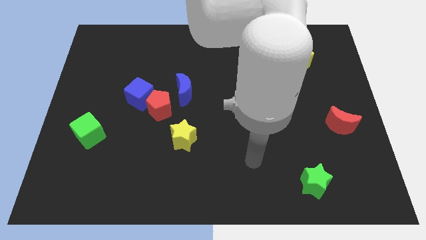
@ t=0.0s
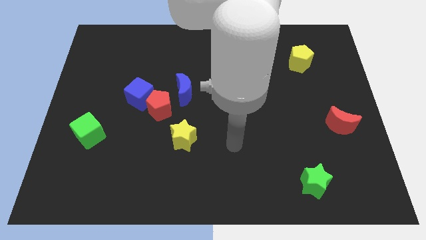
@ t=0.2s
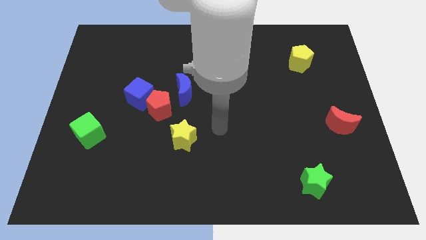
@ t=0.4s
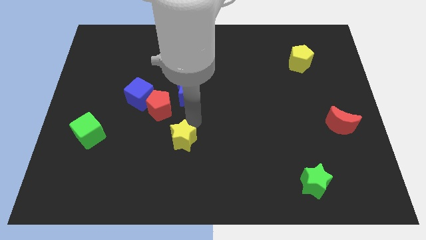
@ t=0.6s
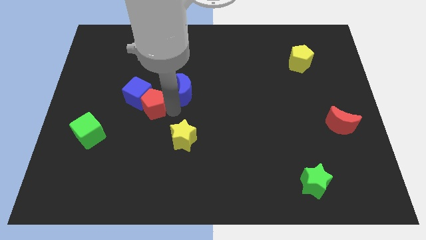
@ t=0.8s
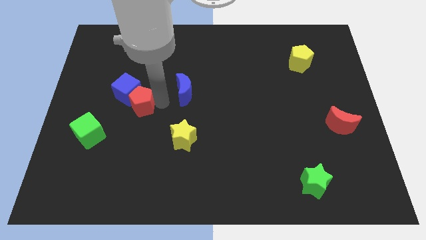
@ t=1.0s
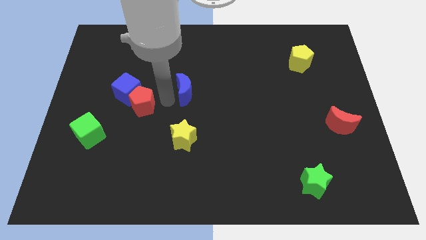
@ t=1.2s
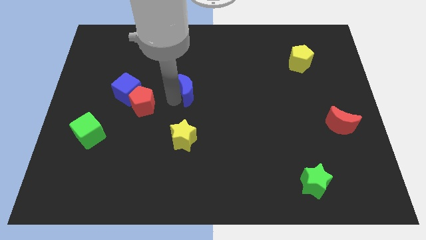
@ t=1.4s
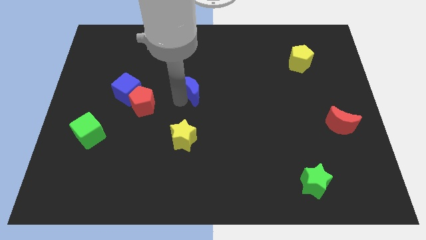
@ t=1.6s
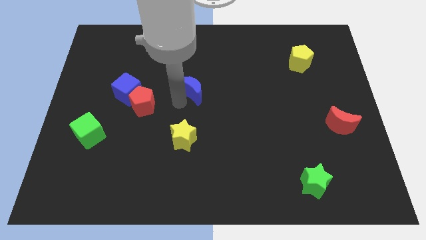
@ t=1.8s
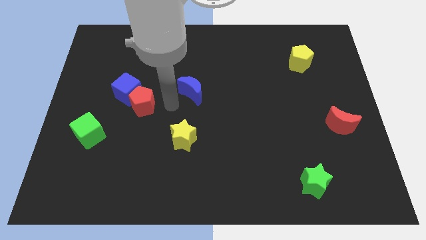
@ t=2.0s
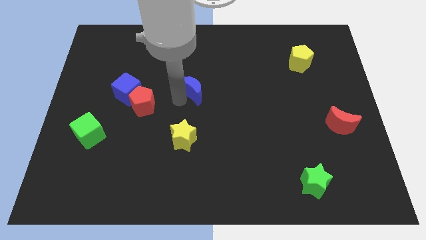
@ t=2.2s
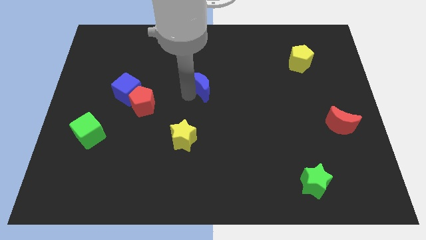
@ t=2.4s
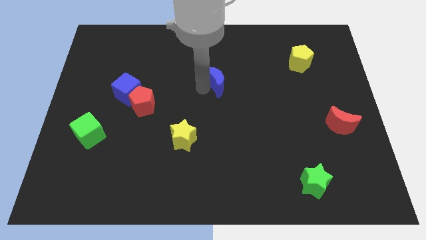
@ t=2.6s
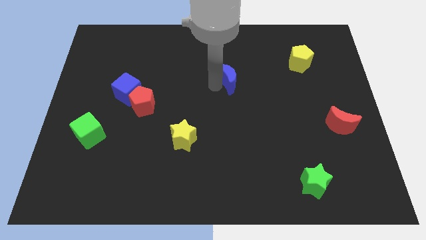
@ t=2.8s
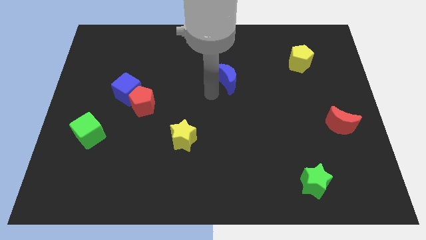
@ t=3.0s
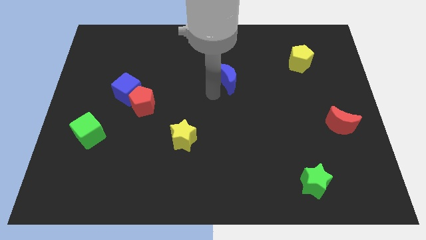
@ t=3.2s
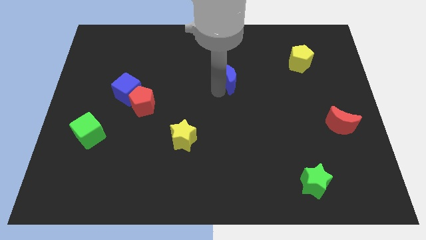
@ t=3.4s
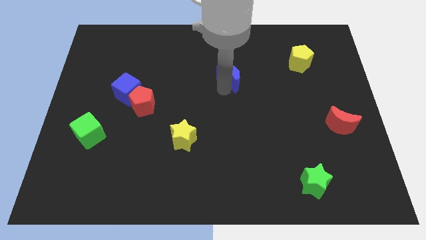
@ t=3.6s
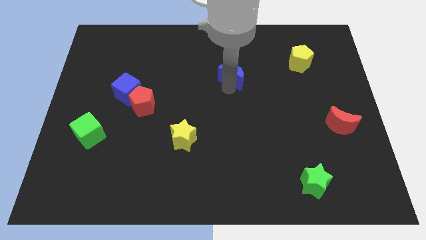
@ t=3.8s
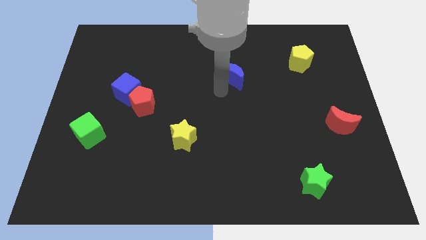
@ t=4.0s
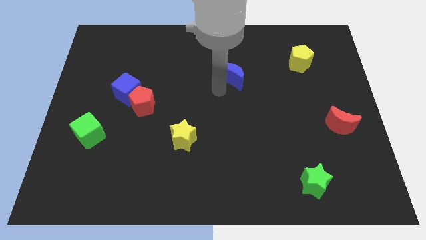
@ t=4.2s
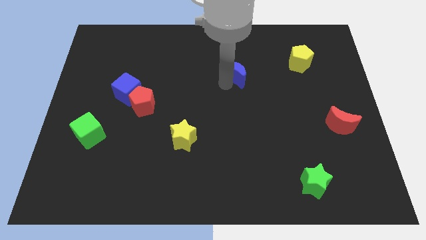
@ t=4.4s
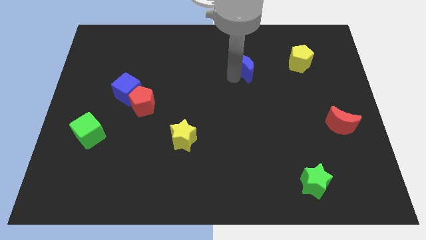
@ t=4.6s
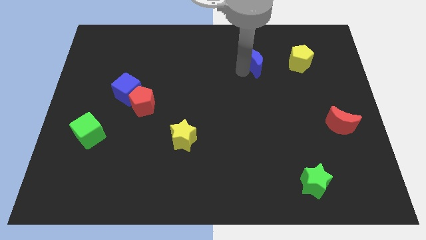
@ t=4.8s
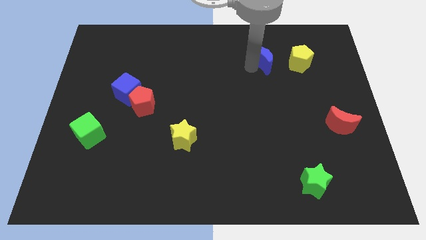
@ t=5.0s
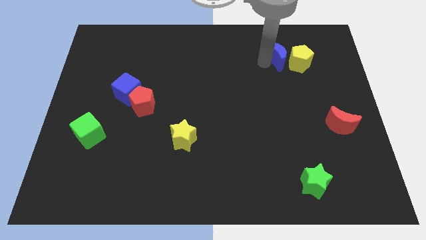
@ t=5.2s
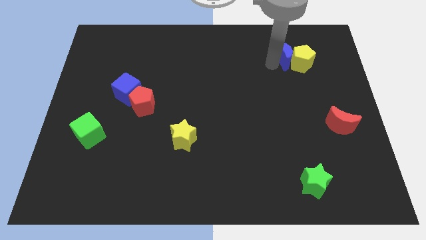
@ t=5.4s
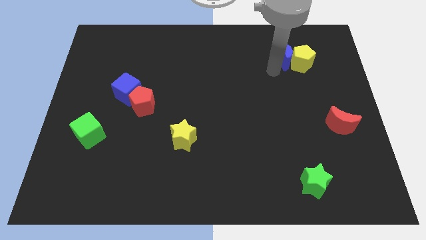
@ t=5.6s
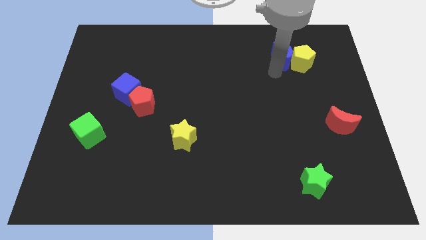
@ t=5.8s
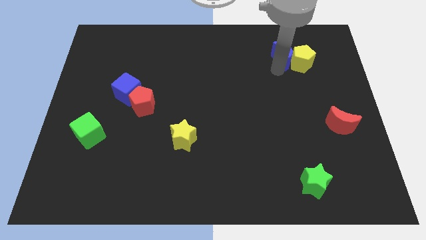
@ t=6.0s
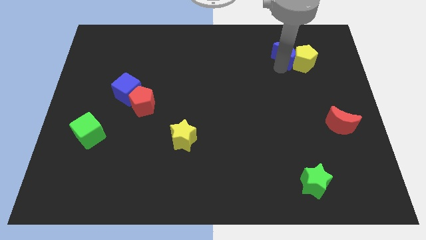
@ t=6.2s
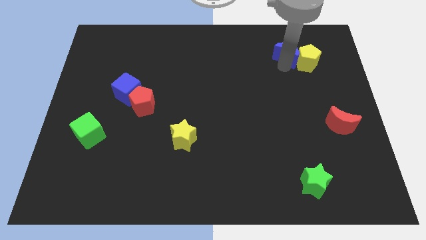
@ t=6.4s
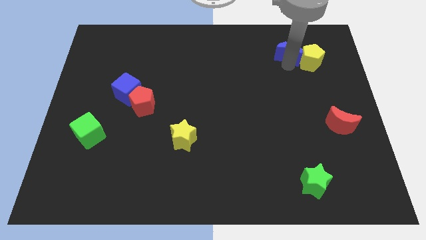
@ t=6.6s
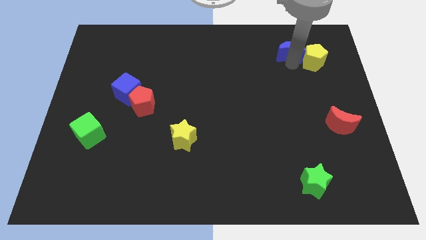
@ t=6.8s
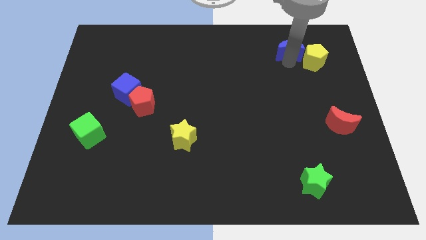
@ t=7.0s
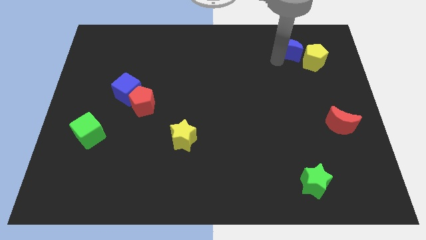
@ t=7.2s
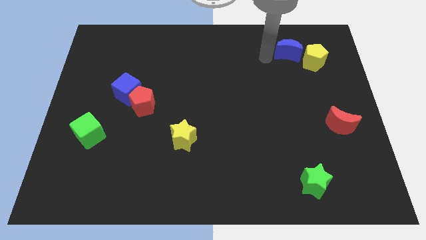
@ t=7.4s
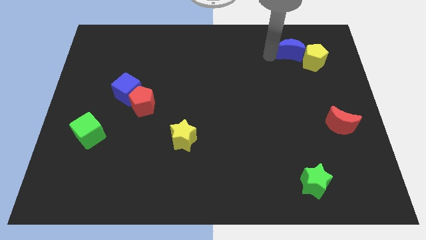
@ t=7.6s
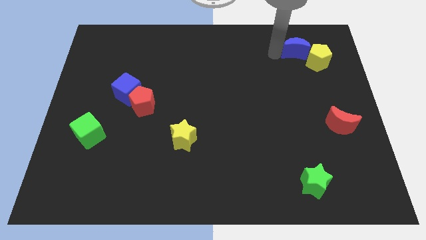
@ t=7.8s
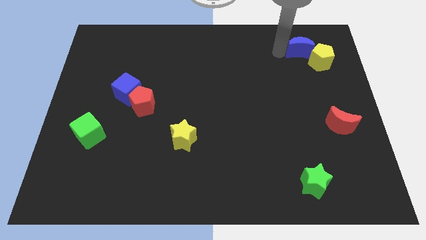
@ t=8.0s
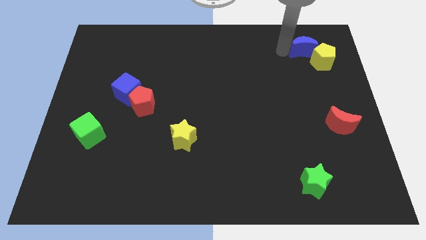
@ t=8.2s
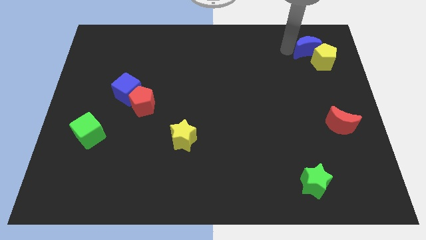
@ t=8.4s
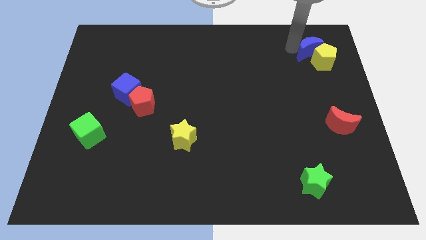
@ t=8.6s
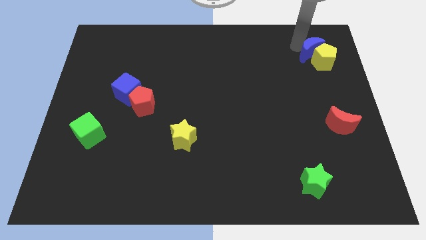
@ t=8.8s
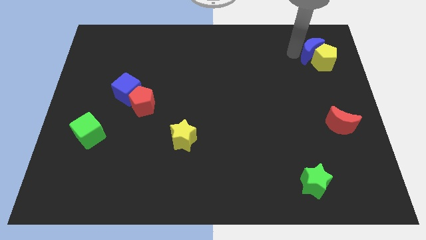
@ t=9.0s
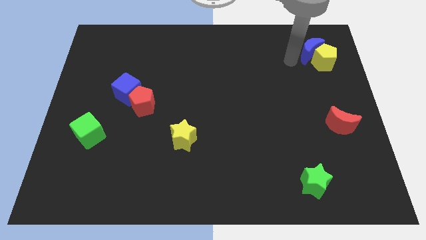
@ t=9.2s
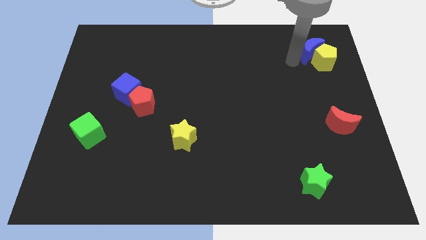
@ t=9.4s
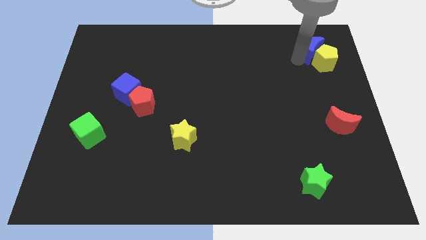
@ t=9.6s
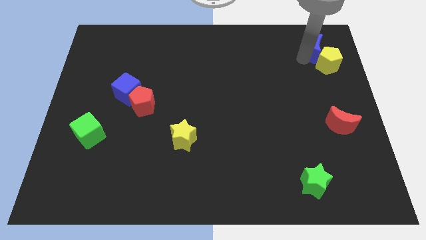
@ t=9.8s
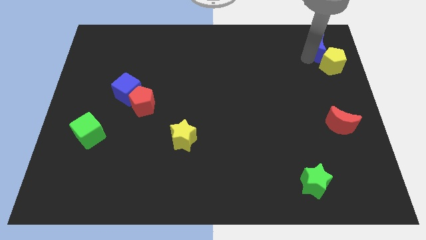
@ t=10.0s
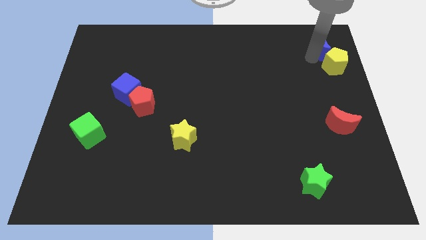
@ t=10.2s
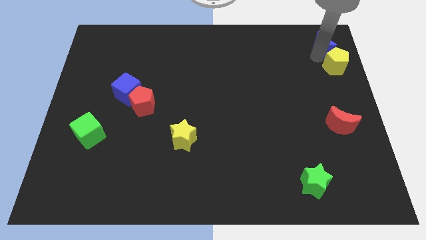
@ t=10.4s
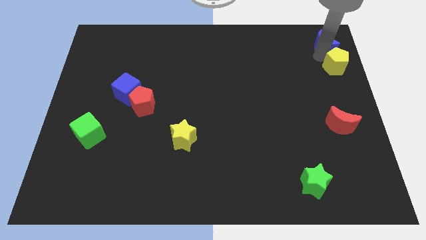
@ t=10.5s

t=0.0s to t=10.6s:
push the blue moon to the top right corner
